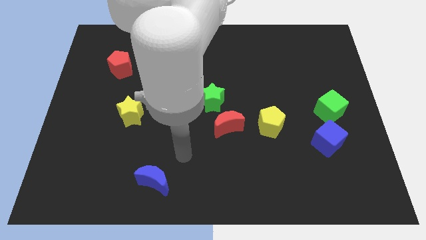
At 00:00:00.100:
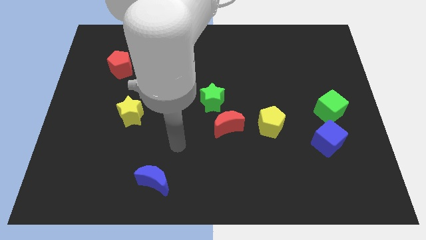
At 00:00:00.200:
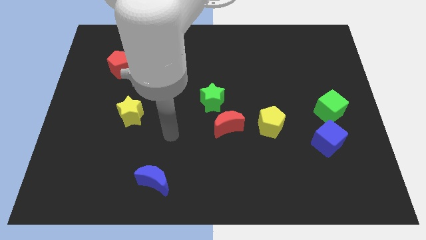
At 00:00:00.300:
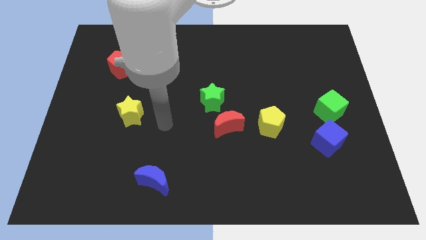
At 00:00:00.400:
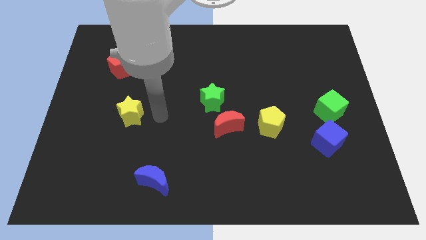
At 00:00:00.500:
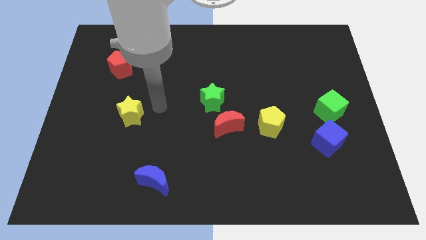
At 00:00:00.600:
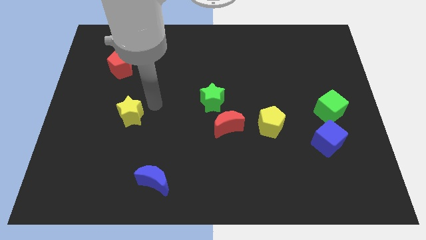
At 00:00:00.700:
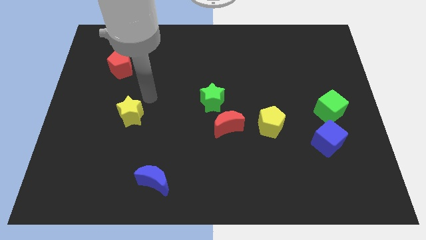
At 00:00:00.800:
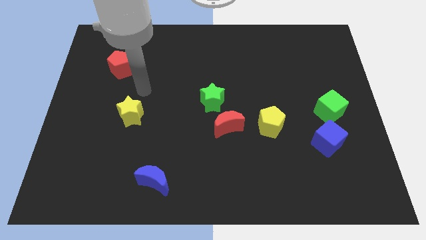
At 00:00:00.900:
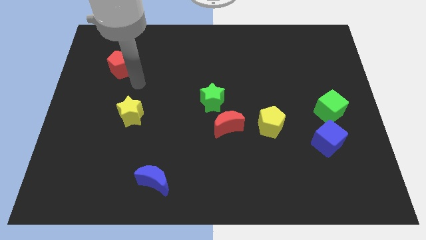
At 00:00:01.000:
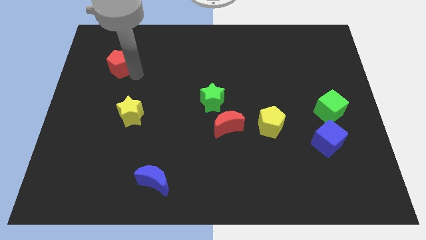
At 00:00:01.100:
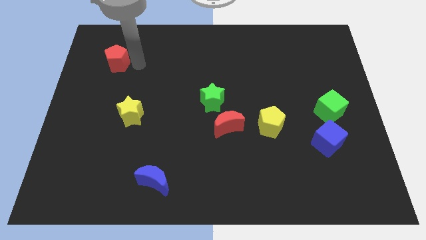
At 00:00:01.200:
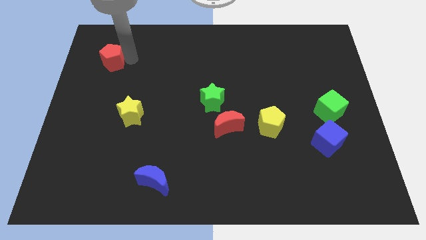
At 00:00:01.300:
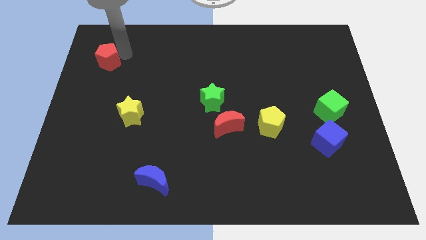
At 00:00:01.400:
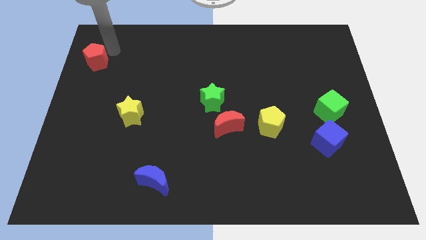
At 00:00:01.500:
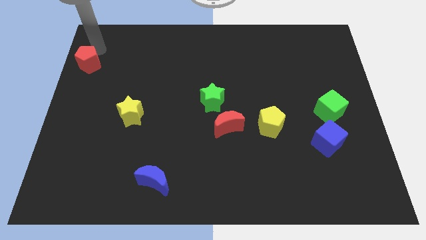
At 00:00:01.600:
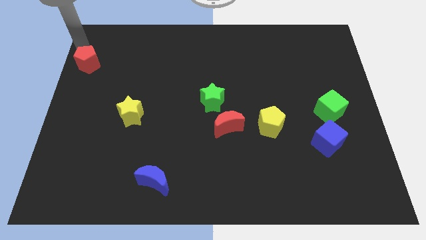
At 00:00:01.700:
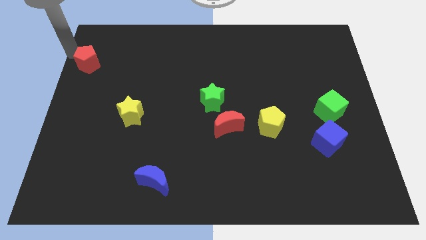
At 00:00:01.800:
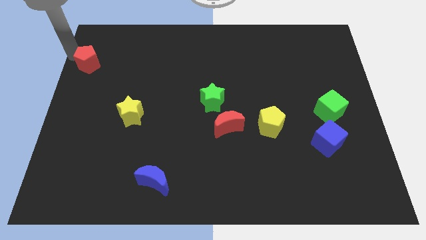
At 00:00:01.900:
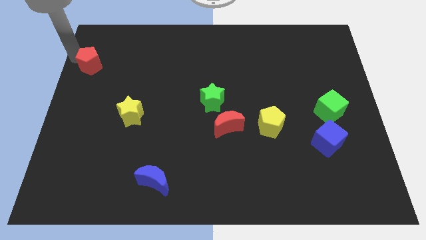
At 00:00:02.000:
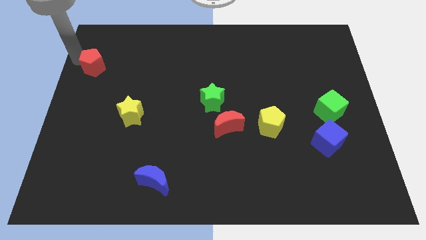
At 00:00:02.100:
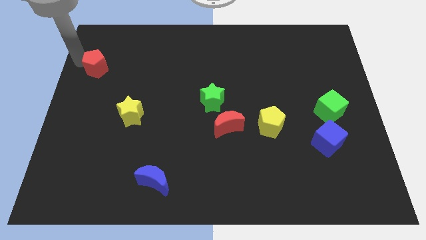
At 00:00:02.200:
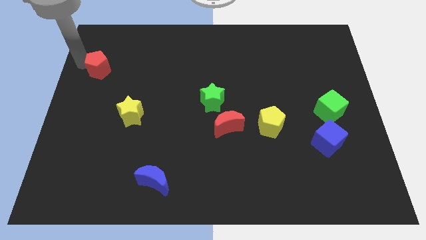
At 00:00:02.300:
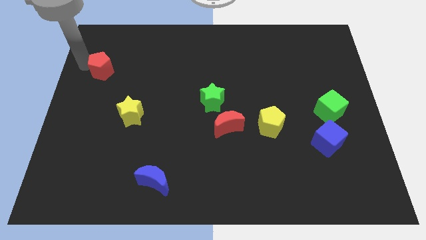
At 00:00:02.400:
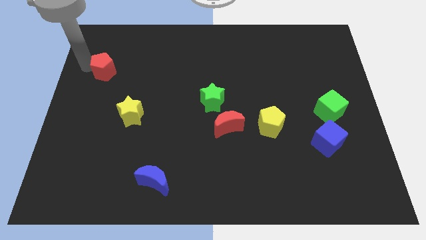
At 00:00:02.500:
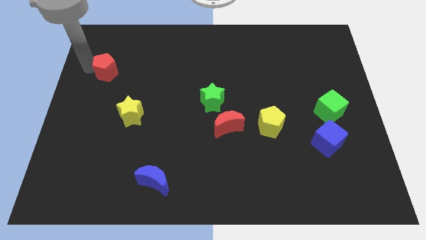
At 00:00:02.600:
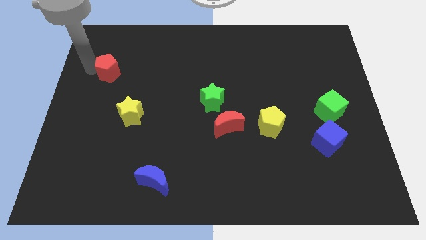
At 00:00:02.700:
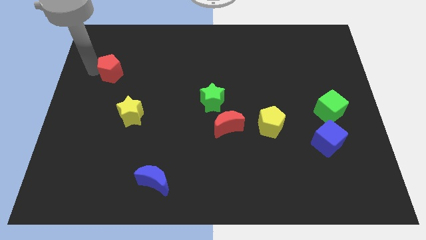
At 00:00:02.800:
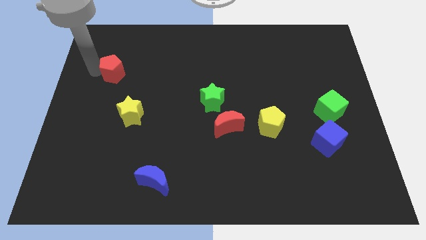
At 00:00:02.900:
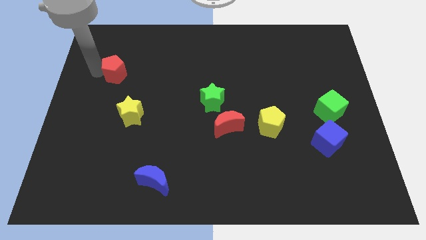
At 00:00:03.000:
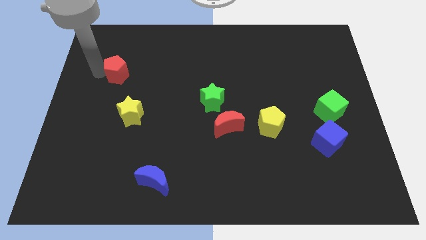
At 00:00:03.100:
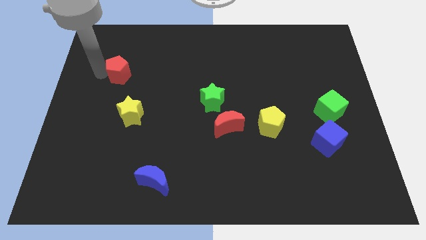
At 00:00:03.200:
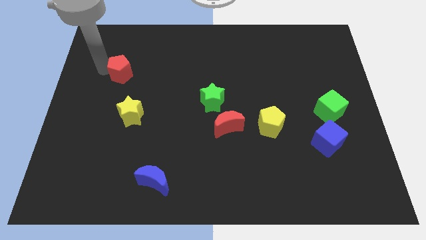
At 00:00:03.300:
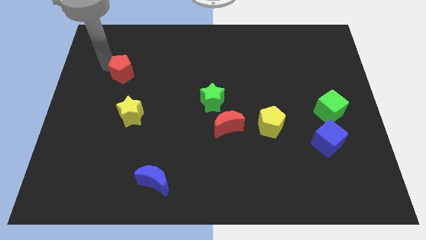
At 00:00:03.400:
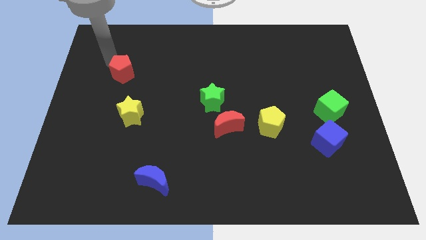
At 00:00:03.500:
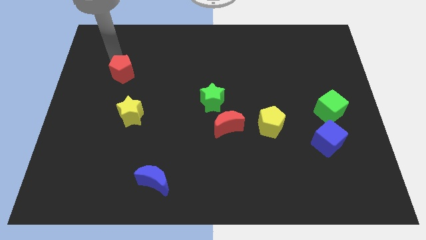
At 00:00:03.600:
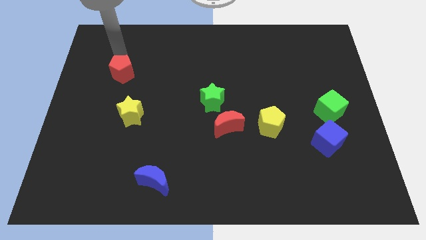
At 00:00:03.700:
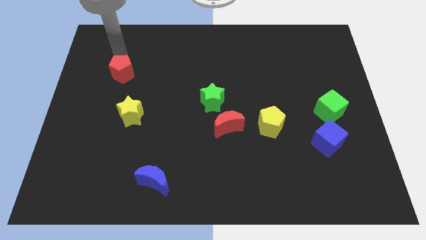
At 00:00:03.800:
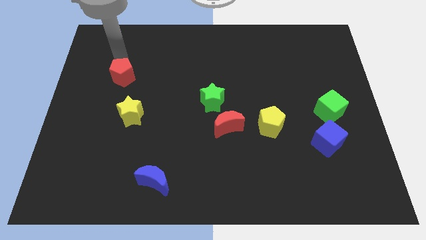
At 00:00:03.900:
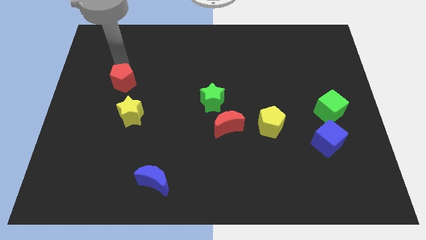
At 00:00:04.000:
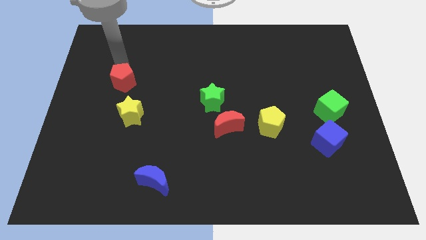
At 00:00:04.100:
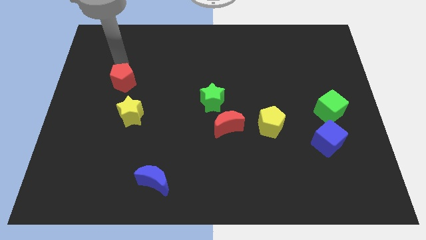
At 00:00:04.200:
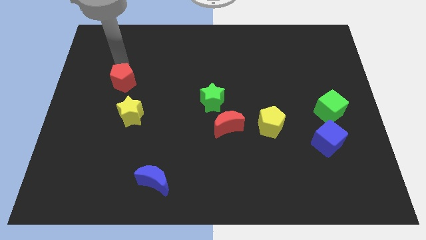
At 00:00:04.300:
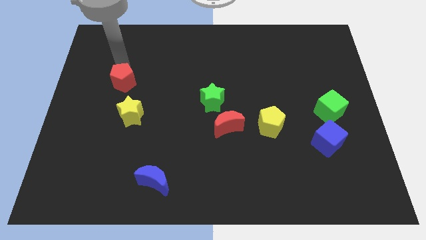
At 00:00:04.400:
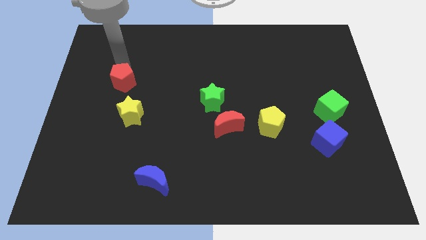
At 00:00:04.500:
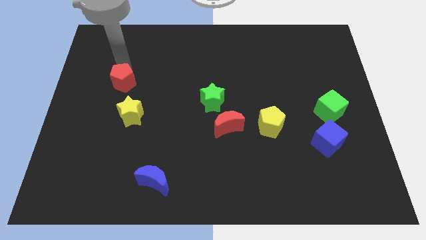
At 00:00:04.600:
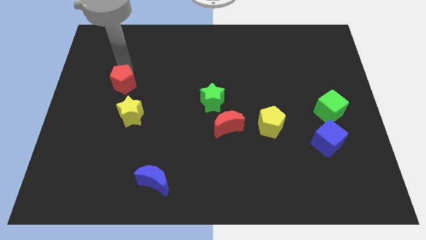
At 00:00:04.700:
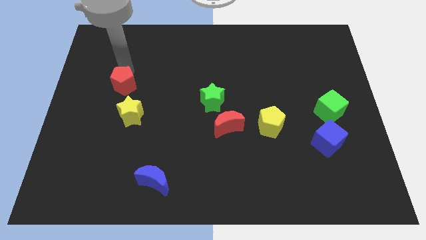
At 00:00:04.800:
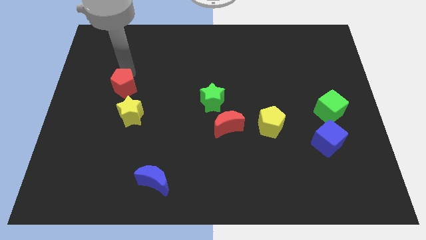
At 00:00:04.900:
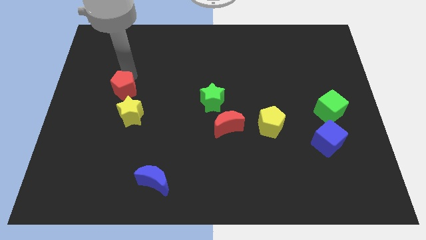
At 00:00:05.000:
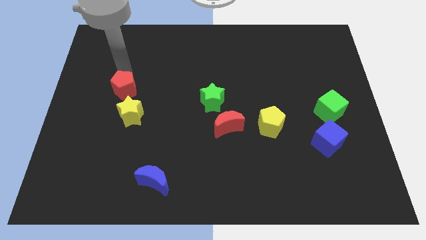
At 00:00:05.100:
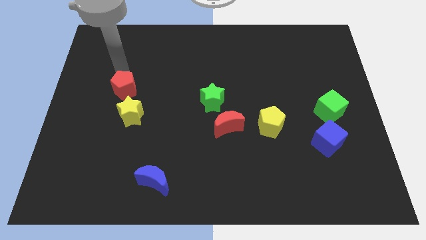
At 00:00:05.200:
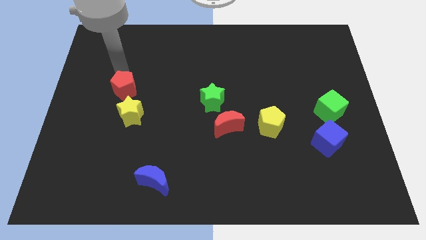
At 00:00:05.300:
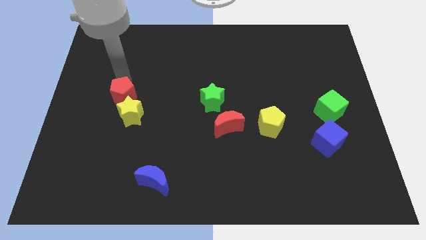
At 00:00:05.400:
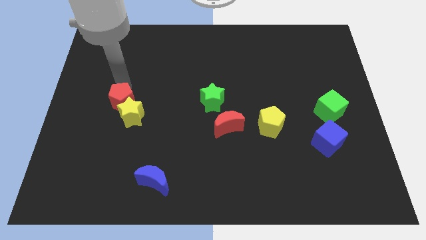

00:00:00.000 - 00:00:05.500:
move the red pentagon towards the yellow star
